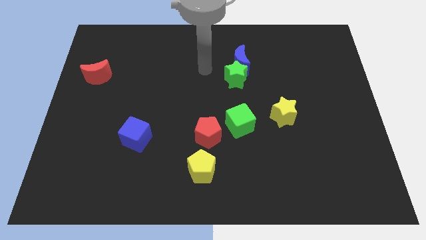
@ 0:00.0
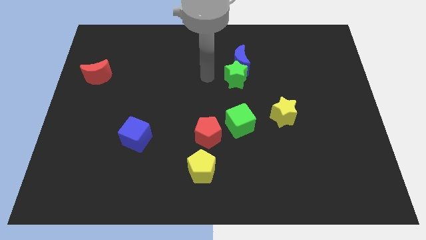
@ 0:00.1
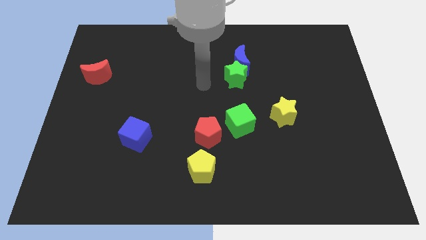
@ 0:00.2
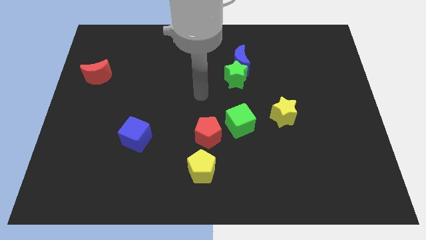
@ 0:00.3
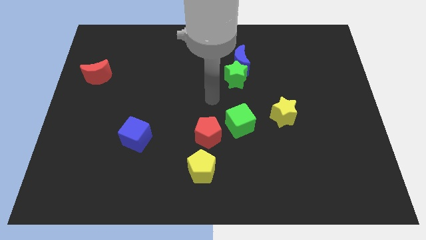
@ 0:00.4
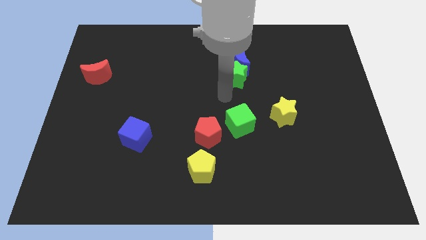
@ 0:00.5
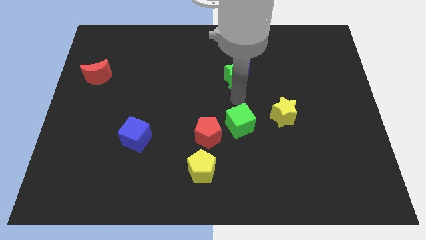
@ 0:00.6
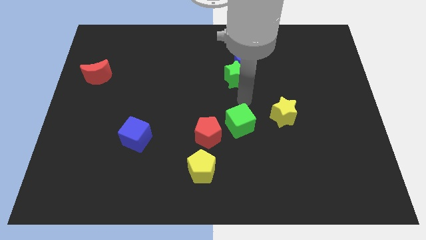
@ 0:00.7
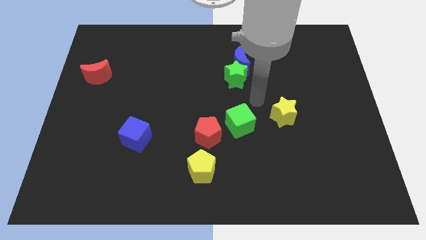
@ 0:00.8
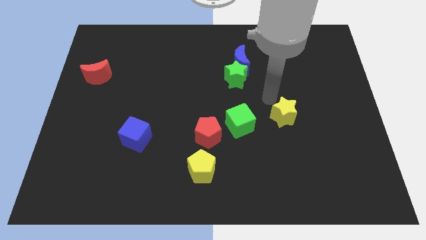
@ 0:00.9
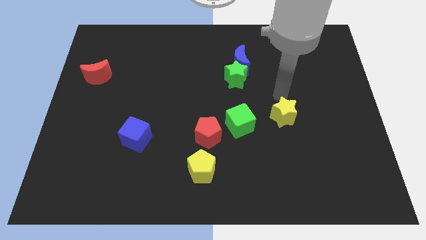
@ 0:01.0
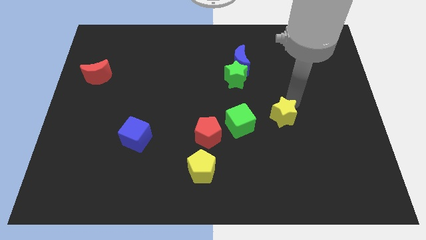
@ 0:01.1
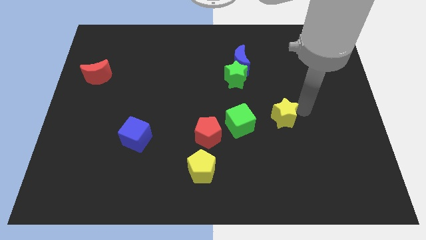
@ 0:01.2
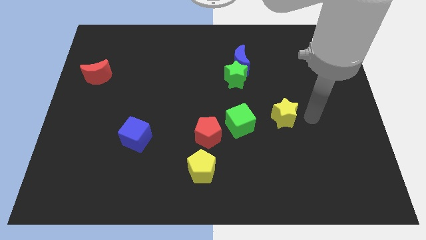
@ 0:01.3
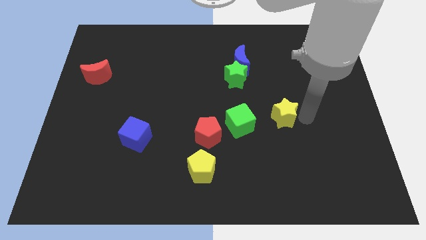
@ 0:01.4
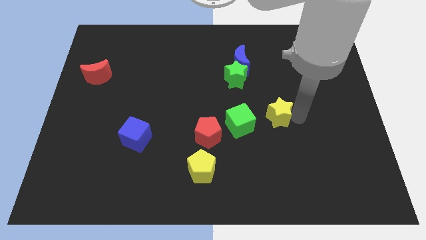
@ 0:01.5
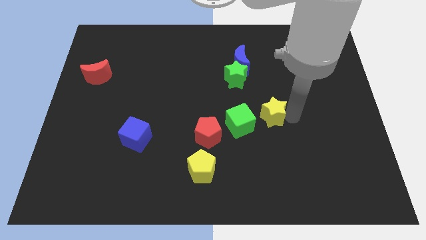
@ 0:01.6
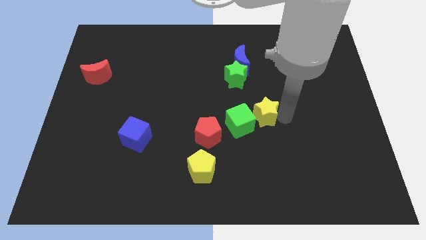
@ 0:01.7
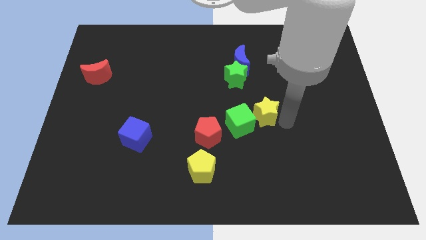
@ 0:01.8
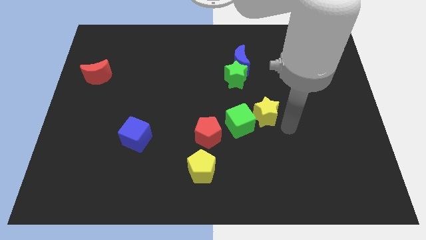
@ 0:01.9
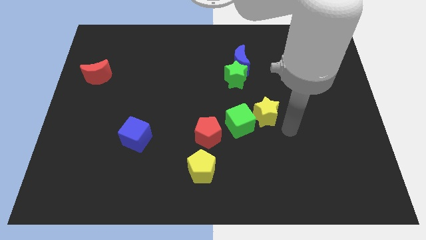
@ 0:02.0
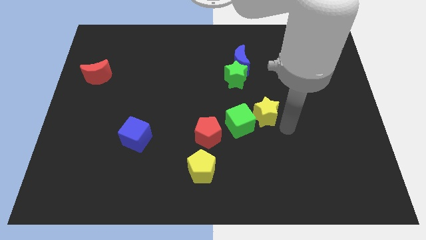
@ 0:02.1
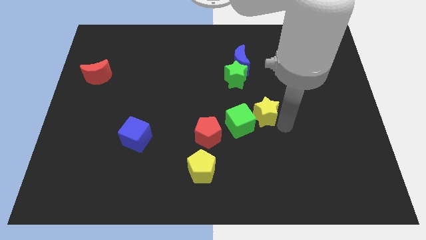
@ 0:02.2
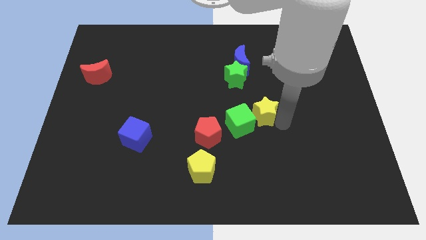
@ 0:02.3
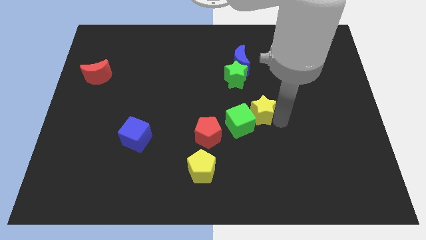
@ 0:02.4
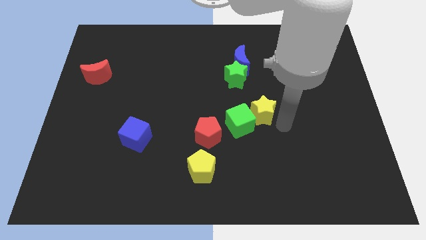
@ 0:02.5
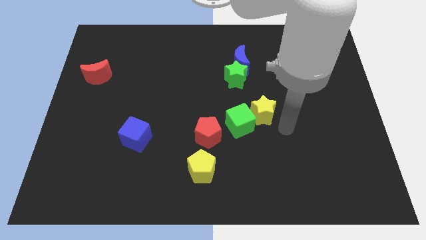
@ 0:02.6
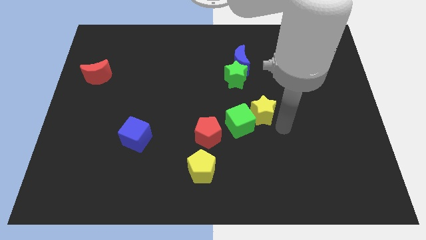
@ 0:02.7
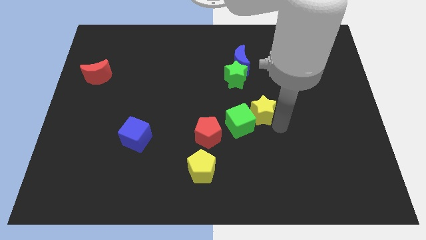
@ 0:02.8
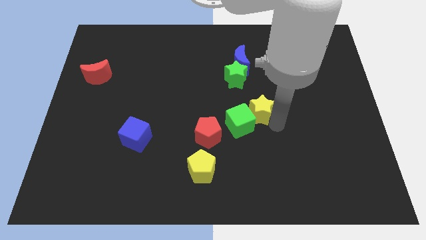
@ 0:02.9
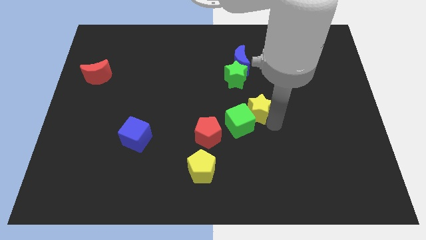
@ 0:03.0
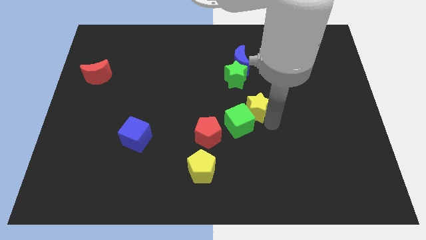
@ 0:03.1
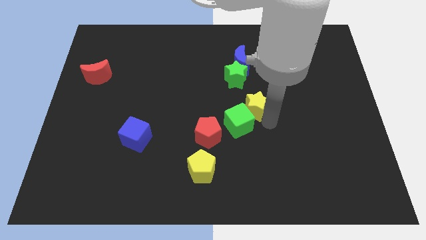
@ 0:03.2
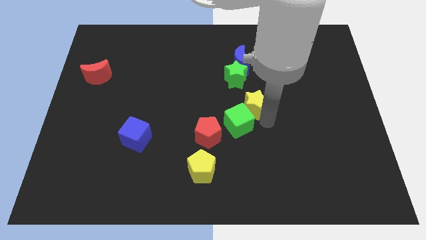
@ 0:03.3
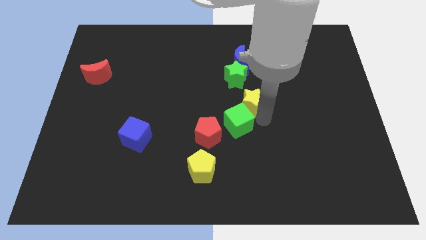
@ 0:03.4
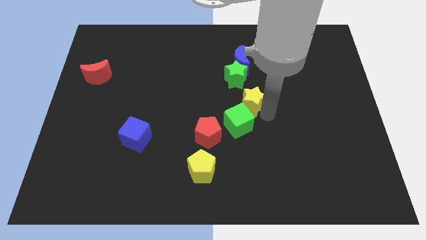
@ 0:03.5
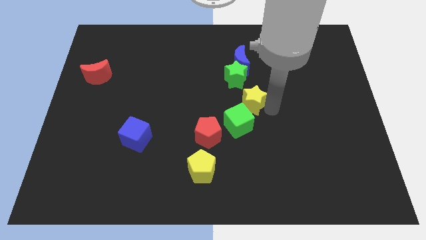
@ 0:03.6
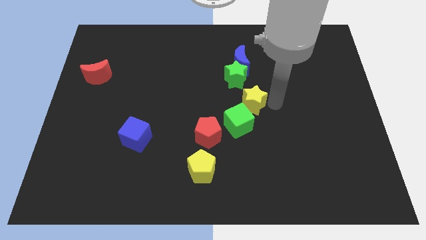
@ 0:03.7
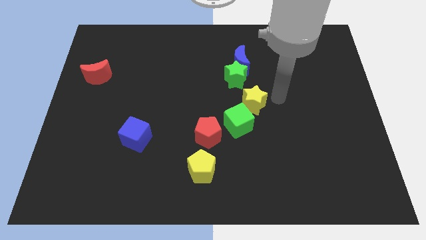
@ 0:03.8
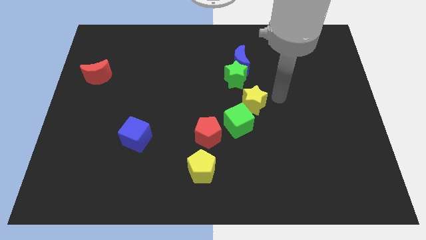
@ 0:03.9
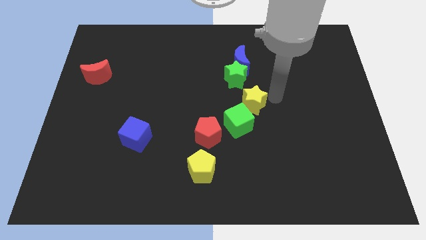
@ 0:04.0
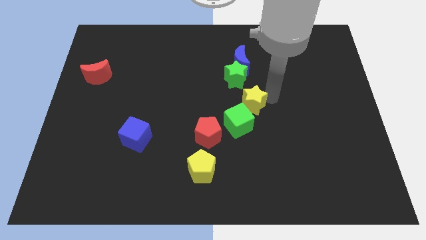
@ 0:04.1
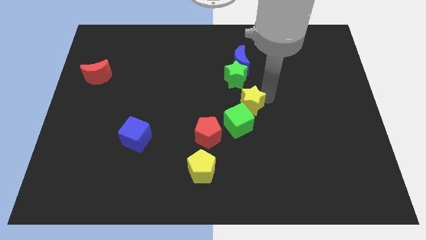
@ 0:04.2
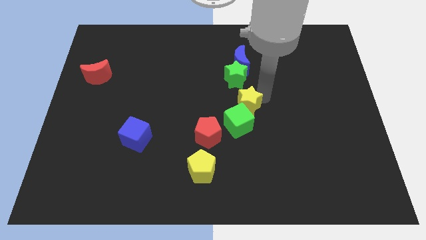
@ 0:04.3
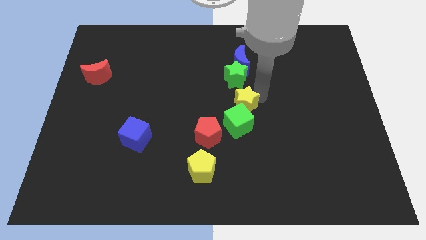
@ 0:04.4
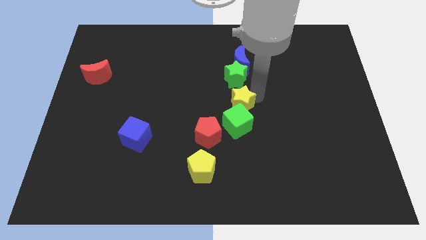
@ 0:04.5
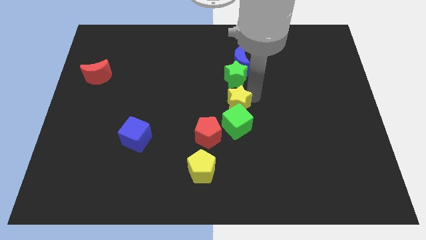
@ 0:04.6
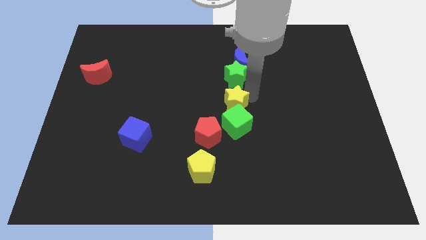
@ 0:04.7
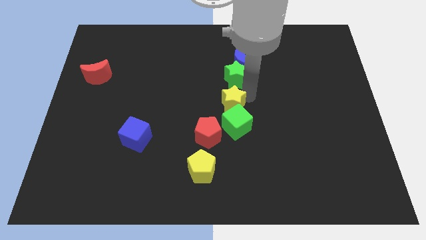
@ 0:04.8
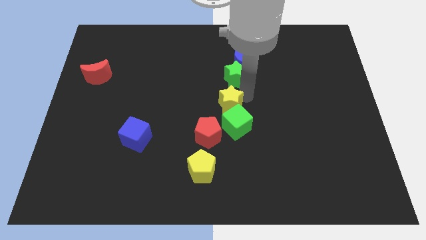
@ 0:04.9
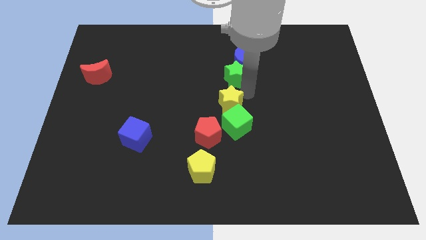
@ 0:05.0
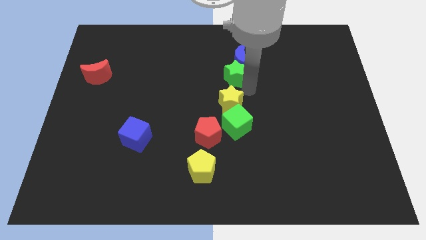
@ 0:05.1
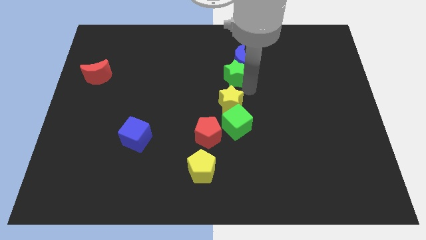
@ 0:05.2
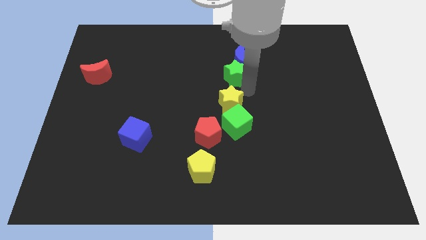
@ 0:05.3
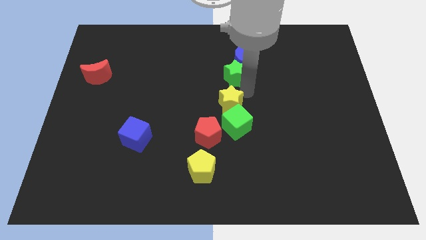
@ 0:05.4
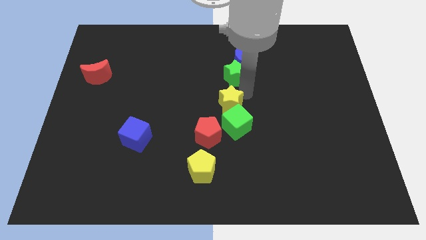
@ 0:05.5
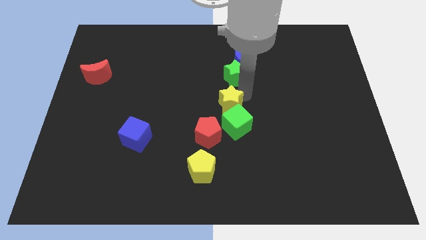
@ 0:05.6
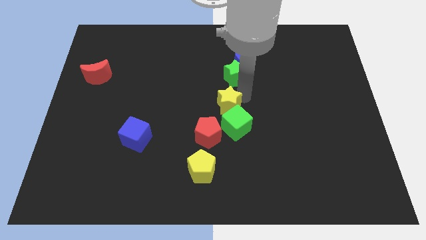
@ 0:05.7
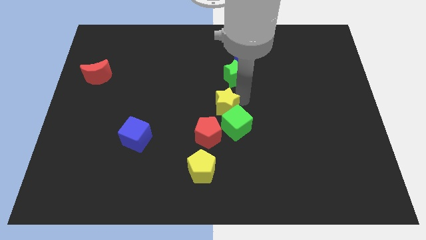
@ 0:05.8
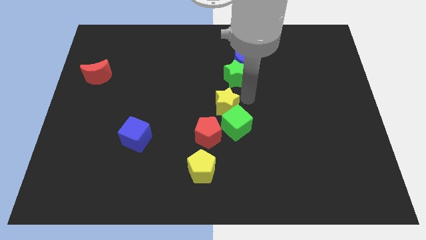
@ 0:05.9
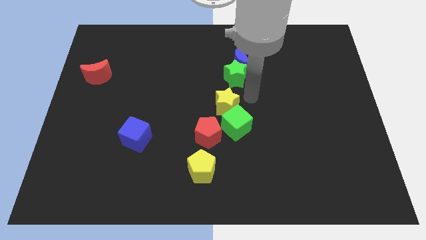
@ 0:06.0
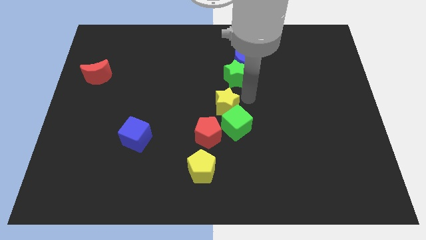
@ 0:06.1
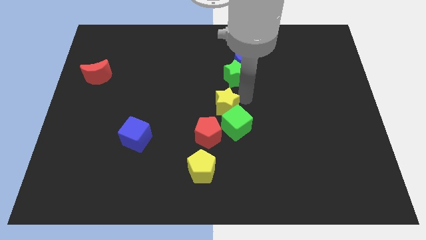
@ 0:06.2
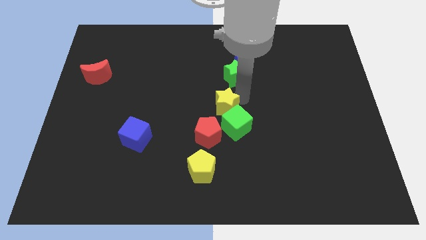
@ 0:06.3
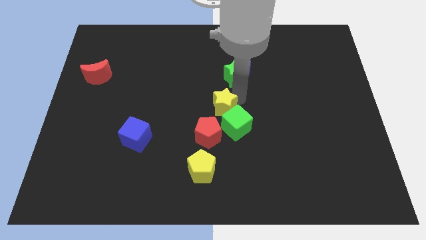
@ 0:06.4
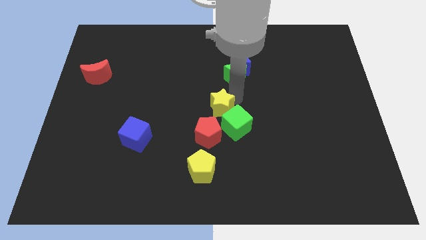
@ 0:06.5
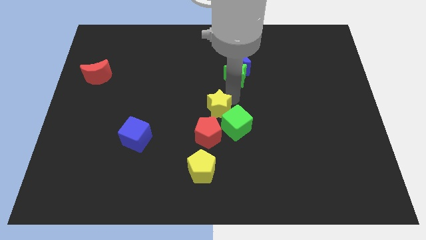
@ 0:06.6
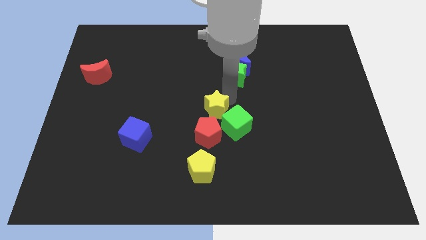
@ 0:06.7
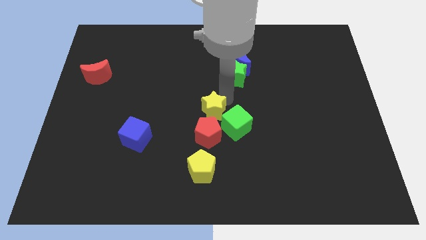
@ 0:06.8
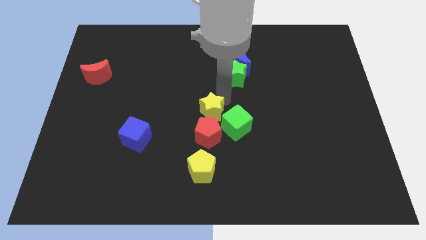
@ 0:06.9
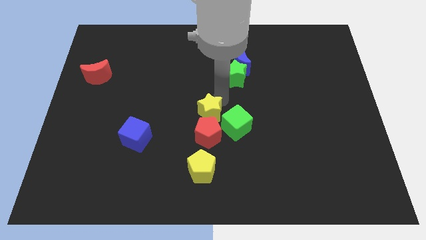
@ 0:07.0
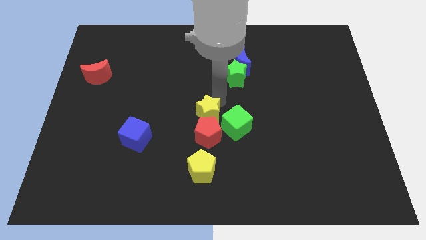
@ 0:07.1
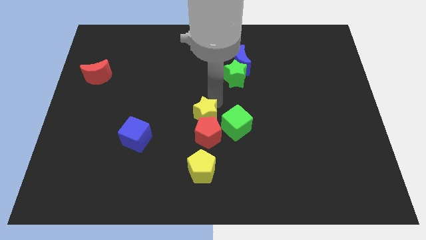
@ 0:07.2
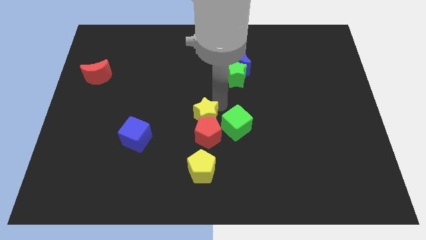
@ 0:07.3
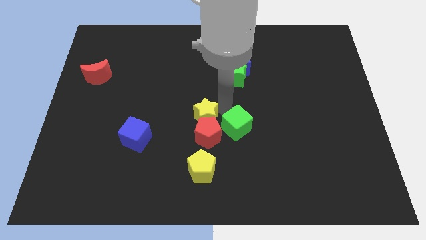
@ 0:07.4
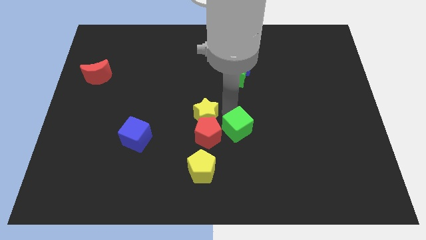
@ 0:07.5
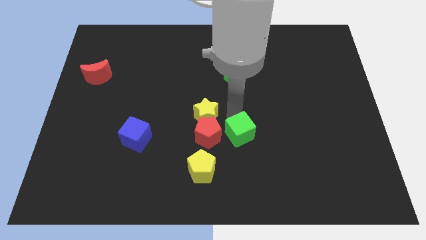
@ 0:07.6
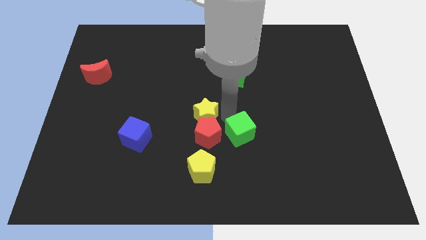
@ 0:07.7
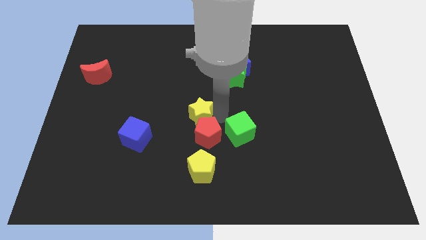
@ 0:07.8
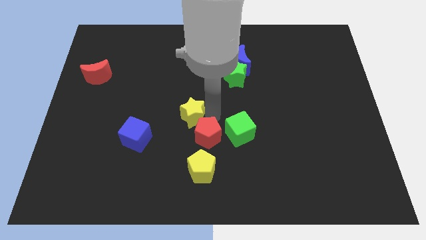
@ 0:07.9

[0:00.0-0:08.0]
slide the yellow star left
